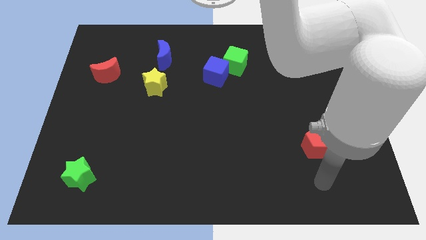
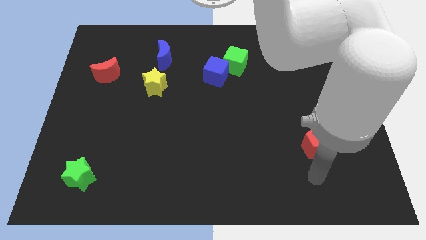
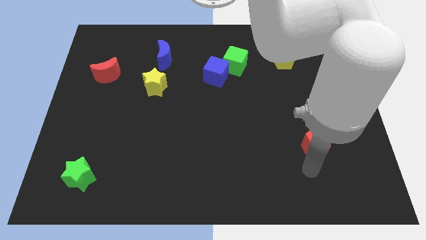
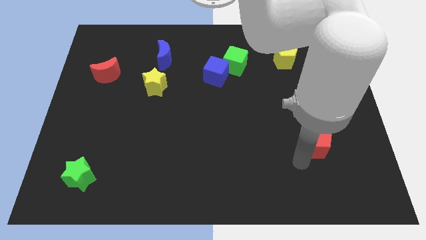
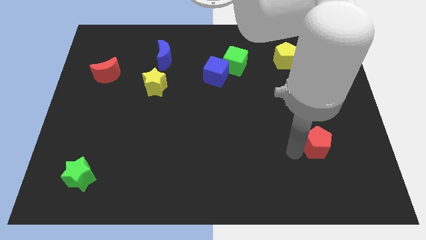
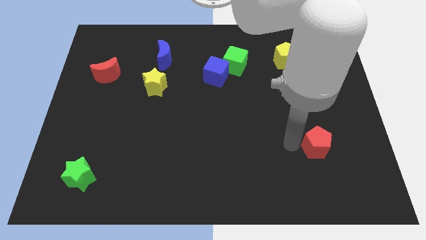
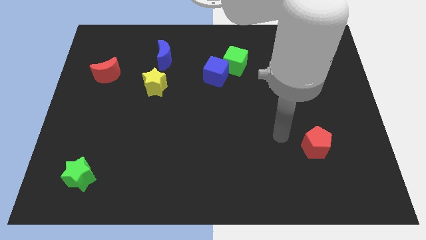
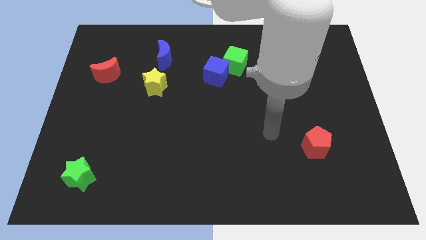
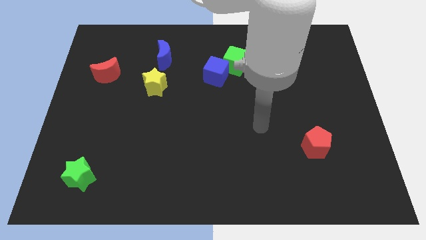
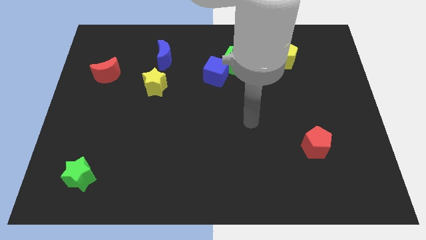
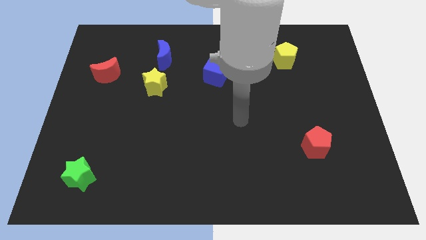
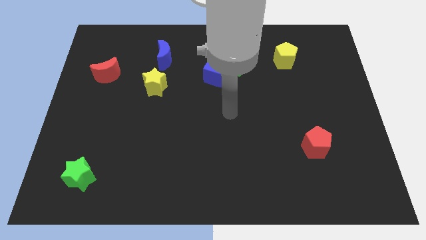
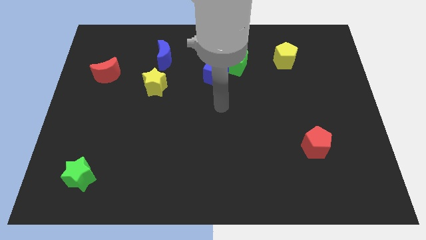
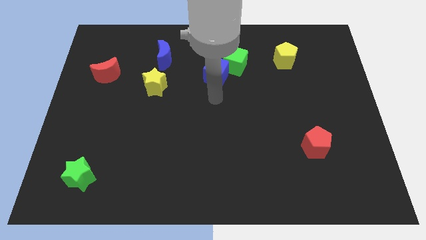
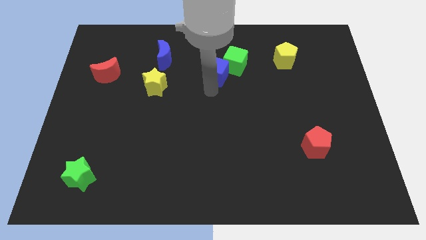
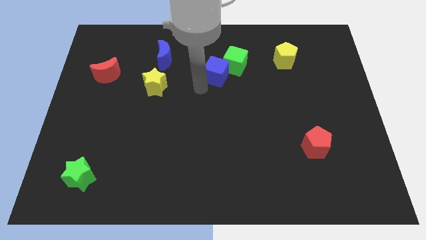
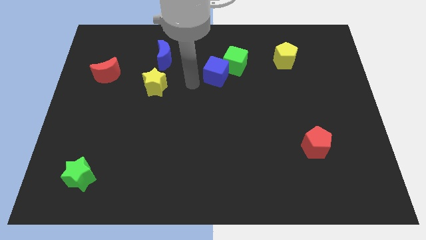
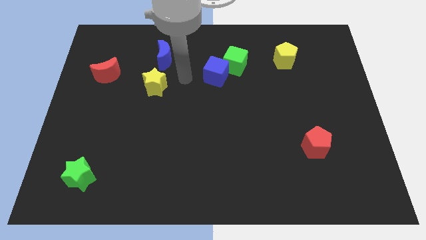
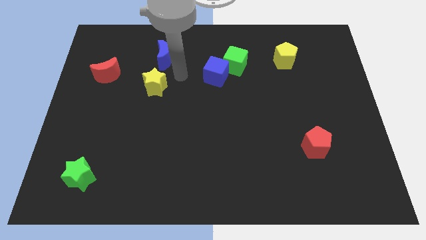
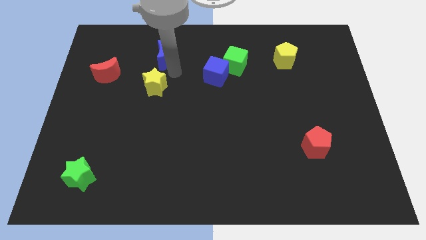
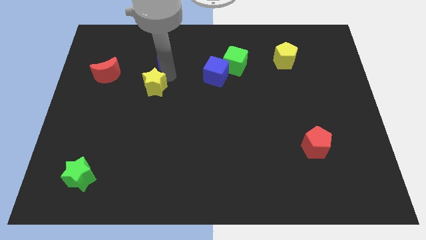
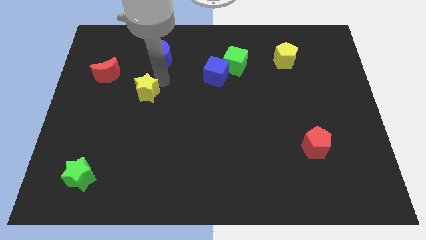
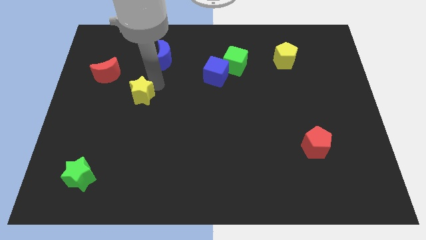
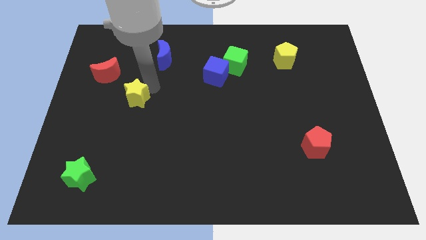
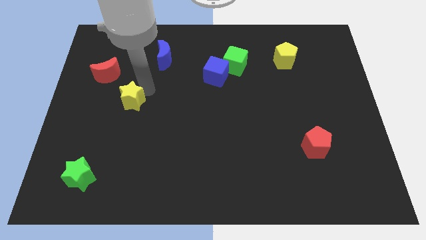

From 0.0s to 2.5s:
move the yellow star downwards and to the left a bit

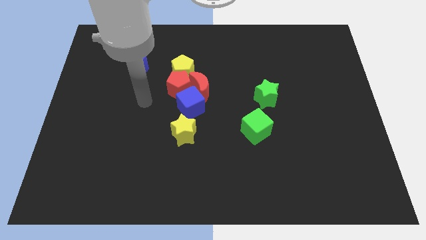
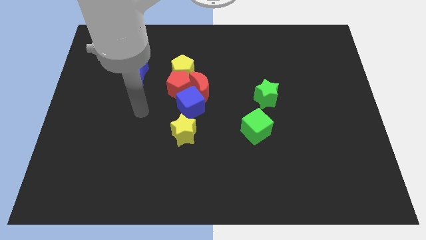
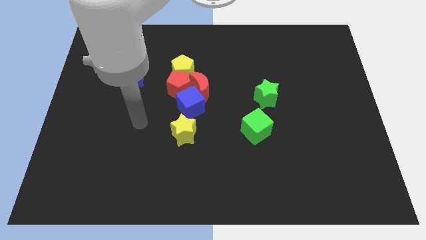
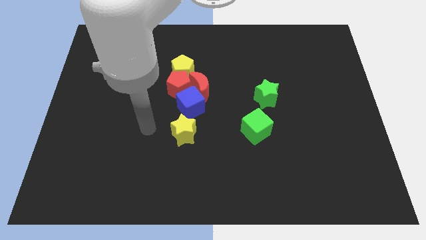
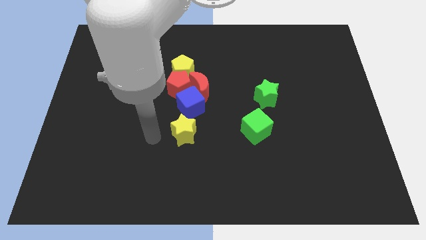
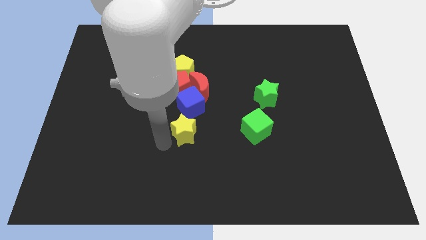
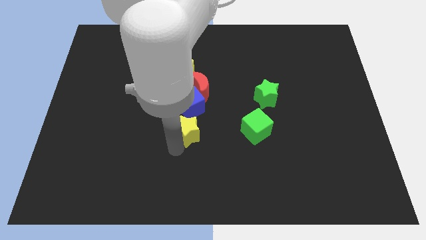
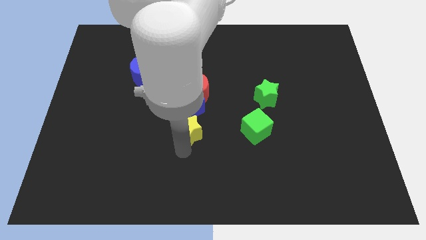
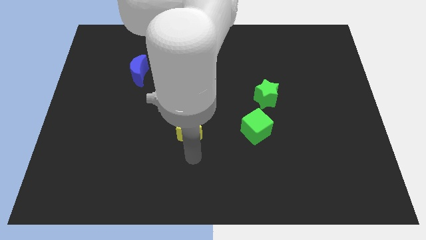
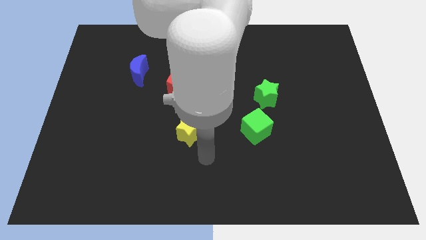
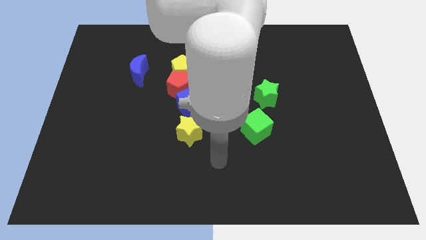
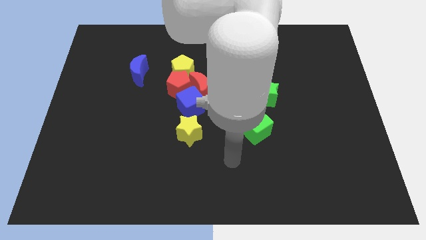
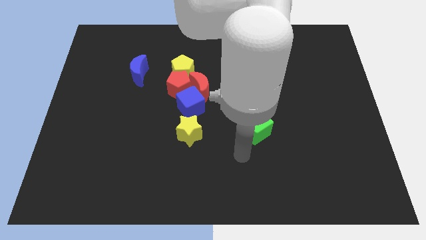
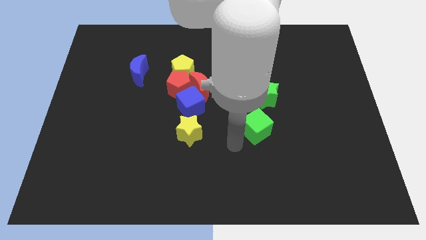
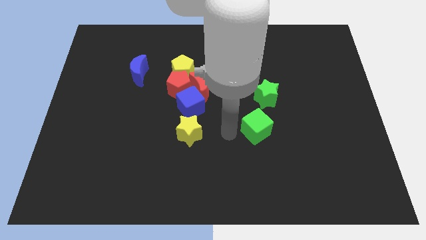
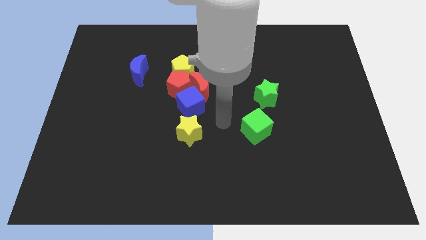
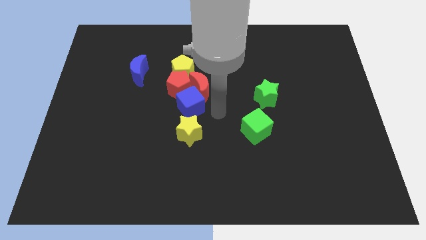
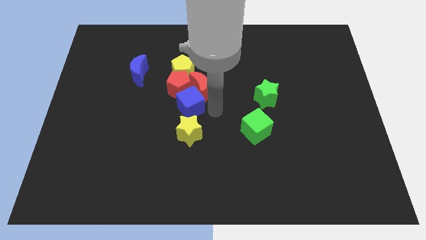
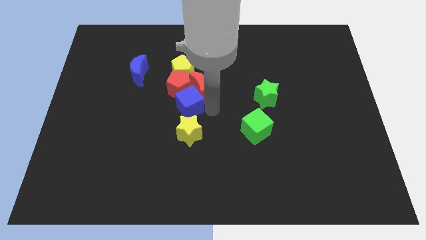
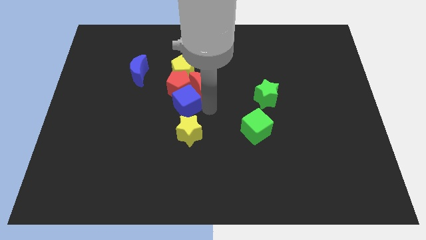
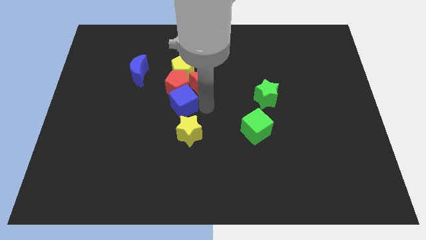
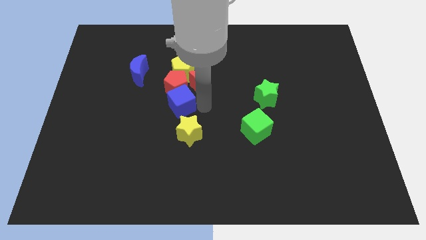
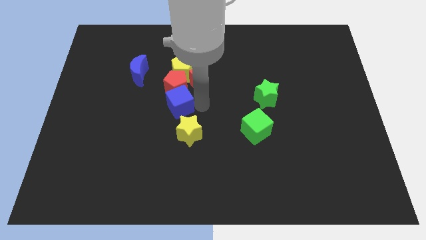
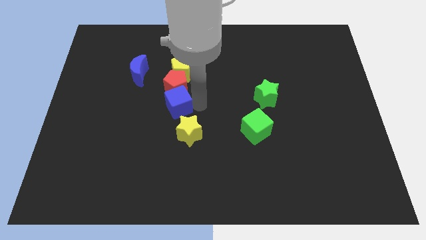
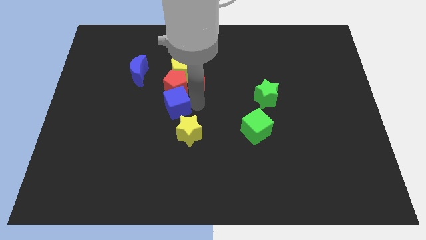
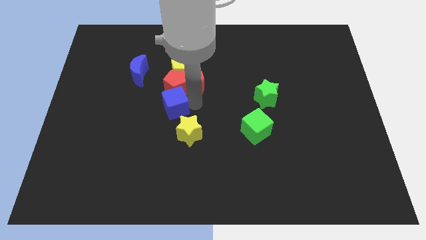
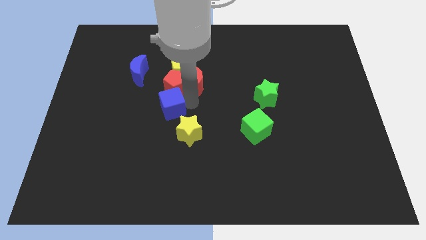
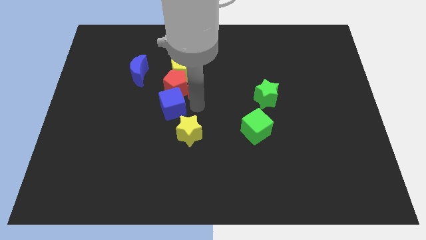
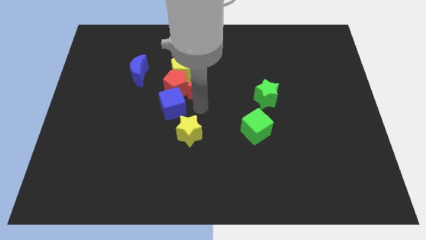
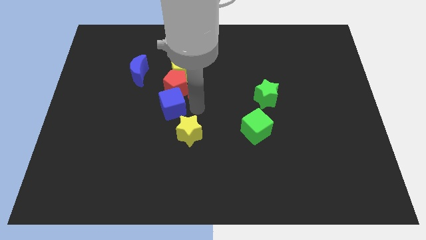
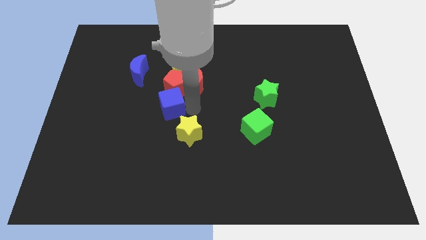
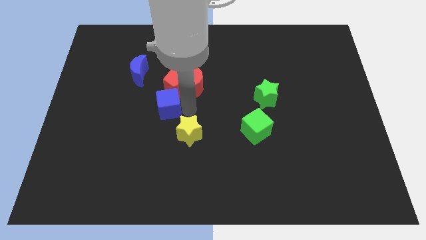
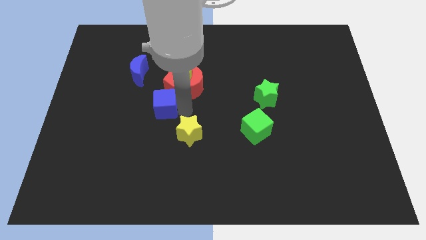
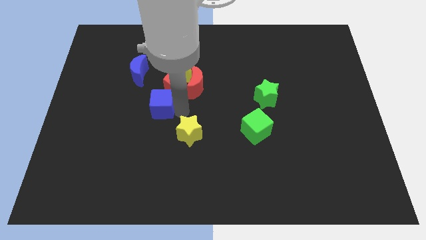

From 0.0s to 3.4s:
slightly slide the blue cube left

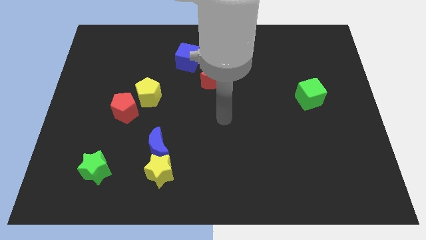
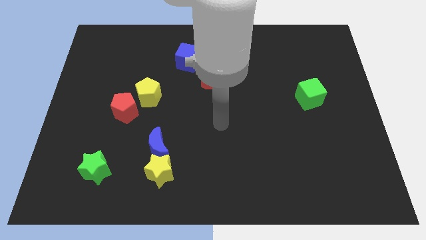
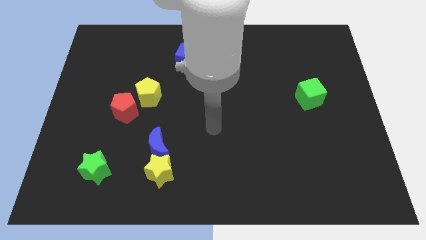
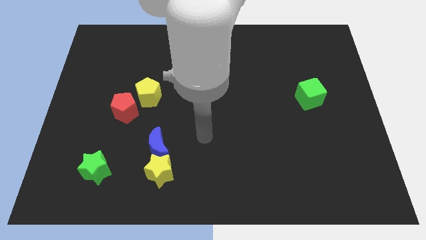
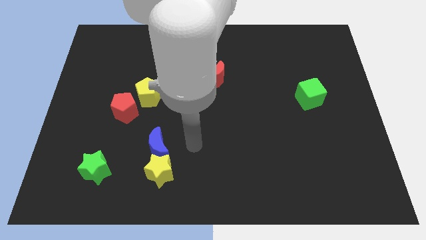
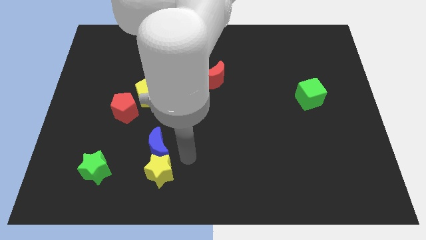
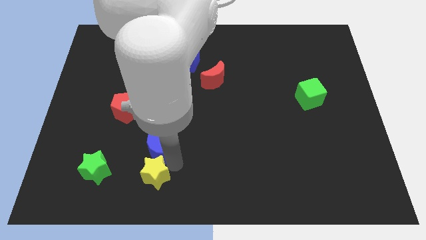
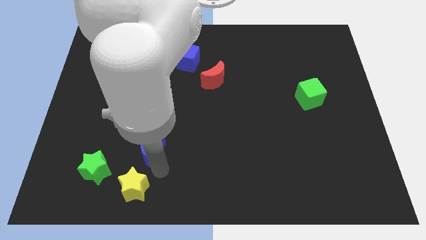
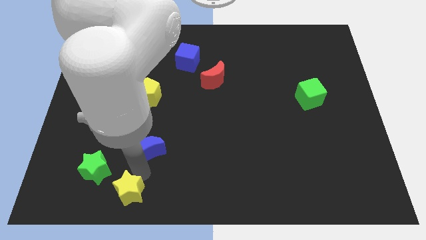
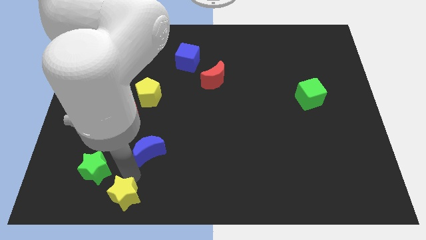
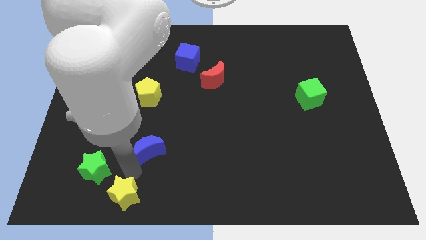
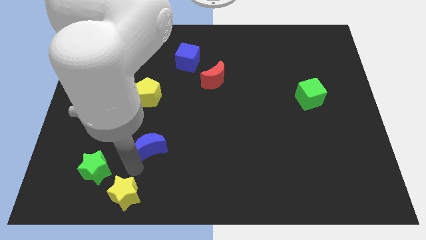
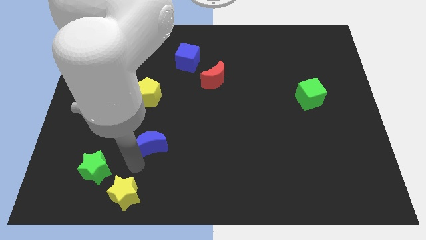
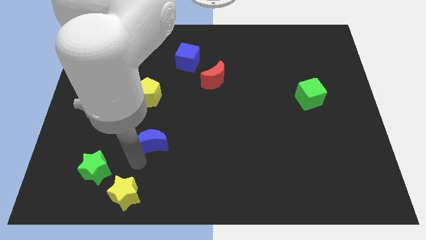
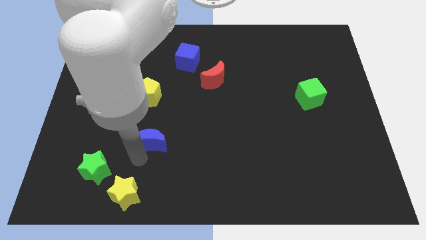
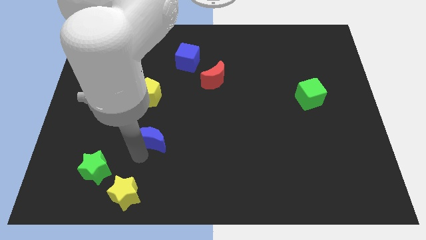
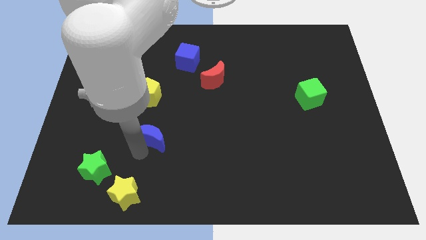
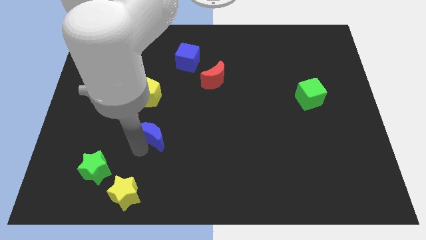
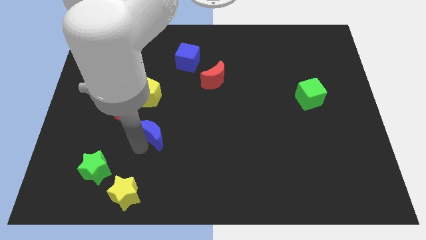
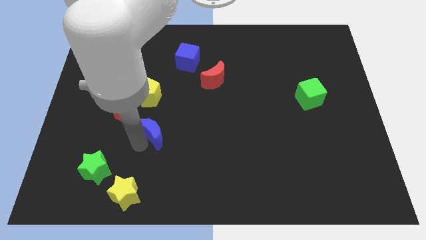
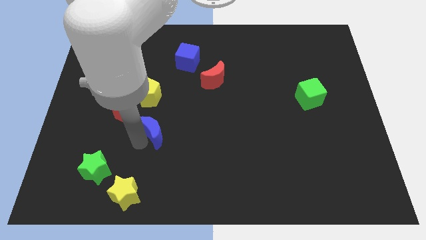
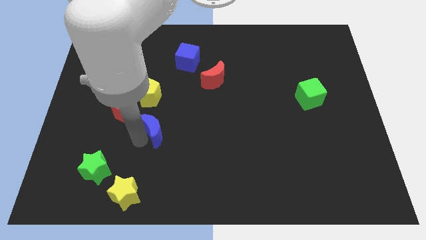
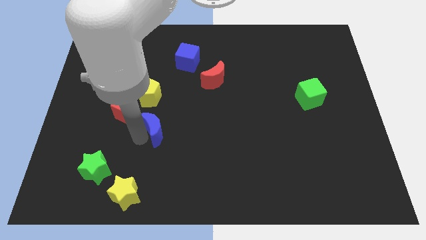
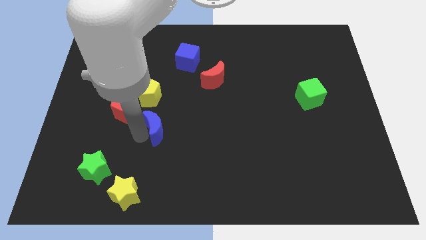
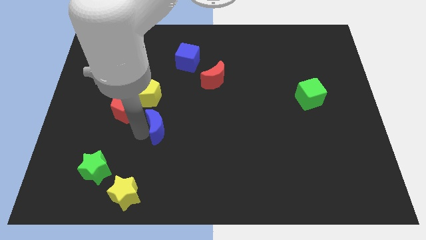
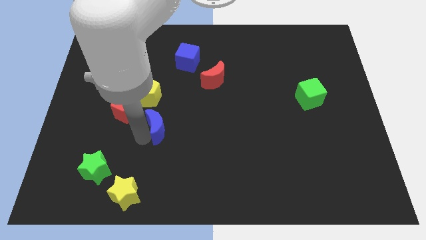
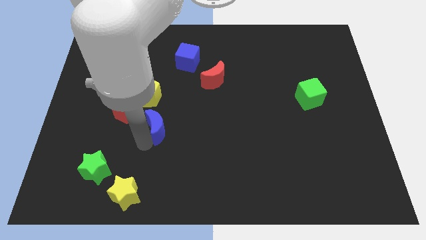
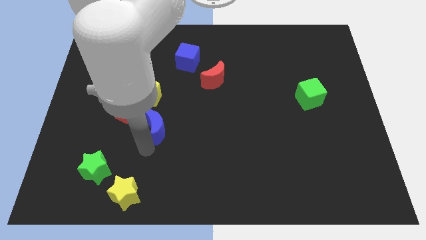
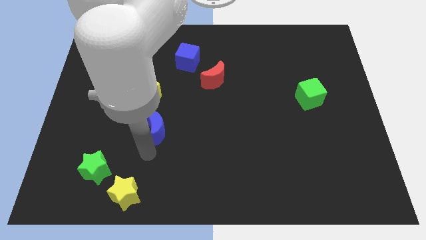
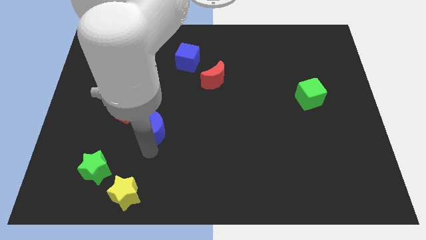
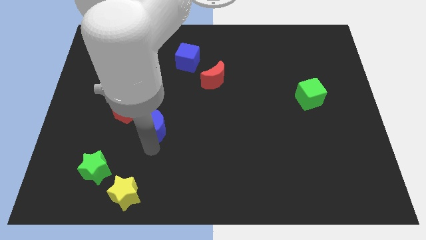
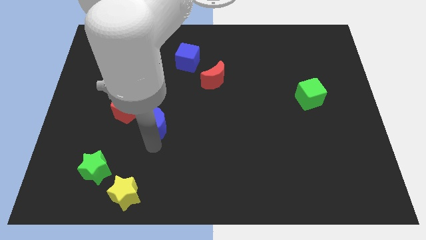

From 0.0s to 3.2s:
slightly push the blue moon upwards
